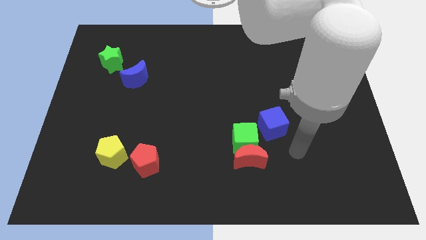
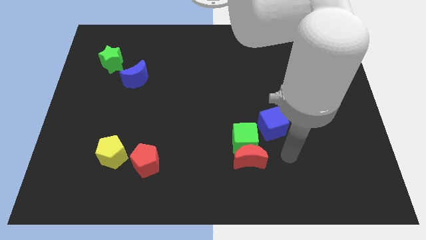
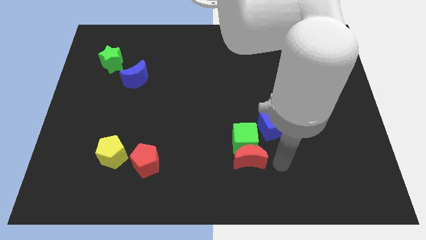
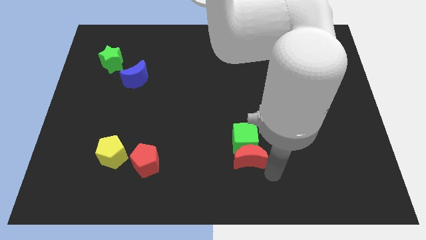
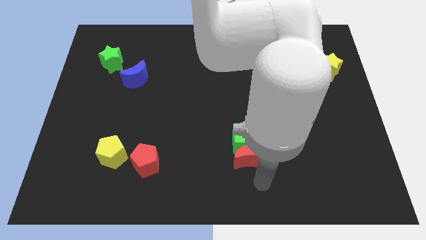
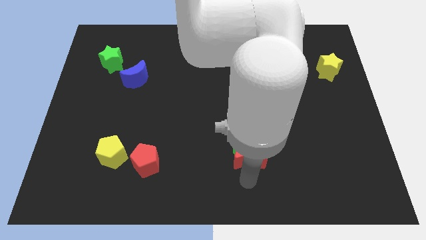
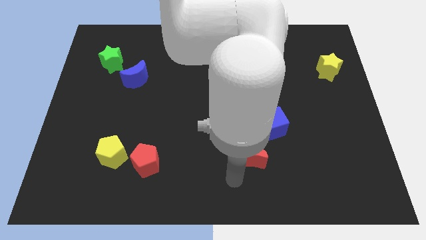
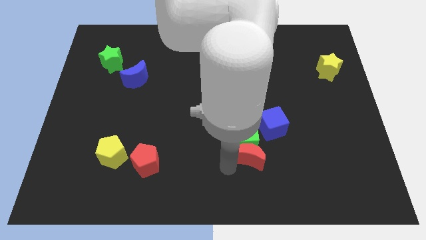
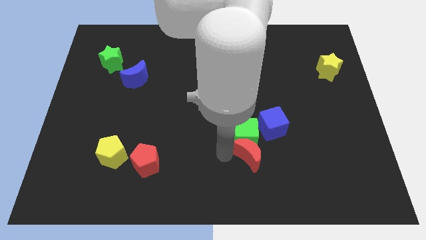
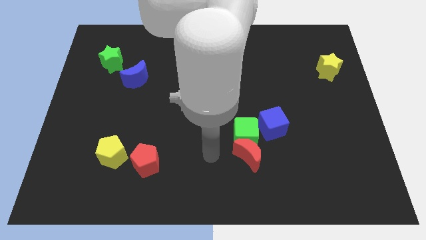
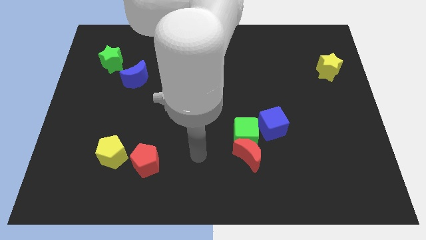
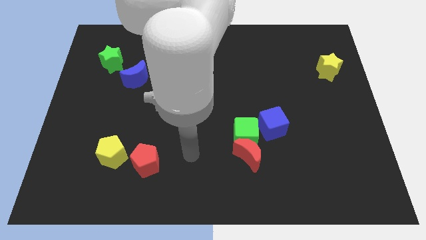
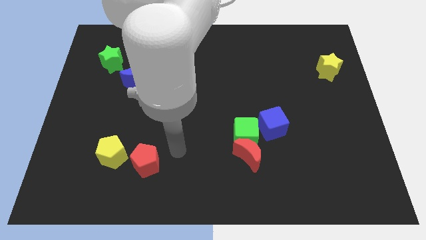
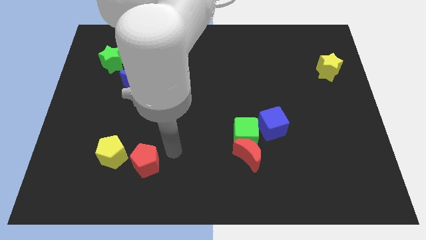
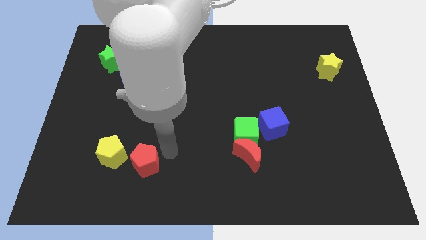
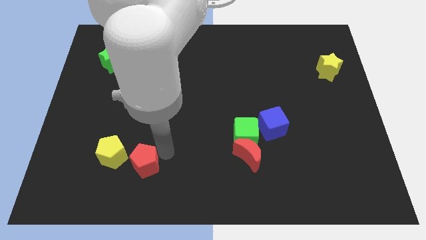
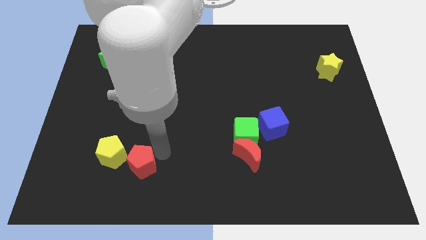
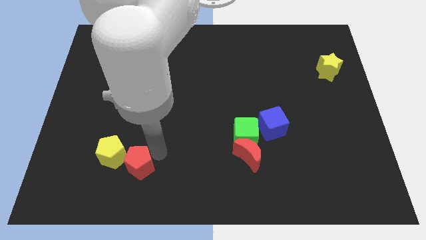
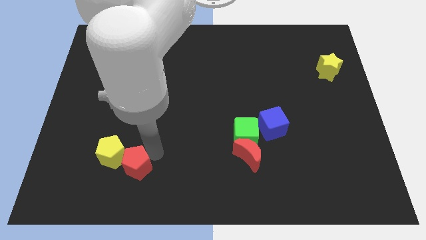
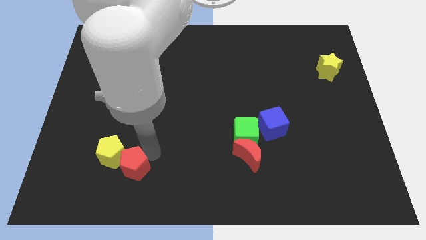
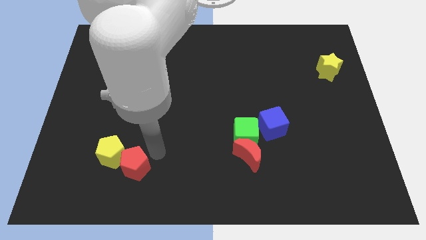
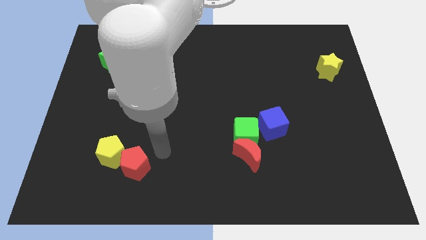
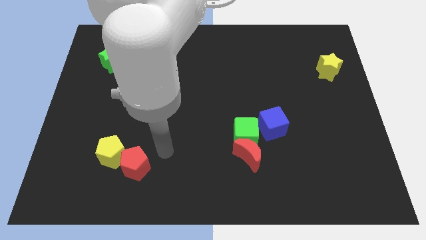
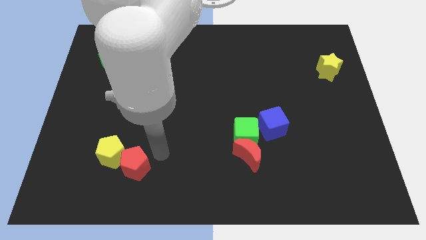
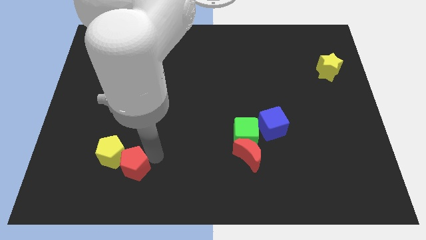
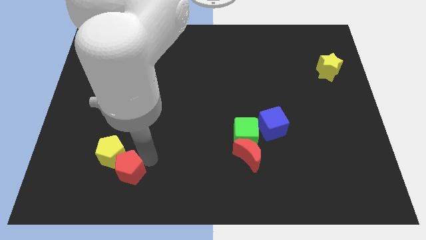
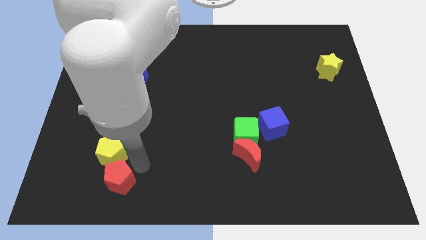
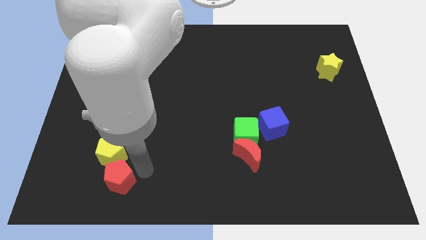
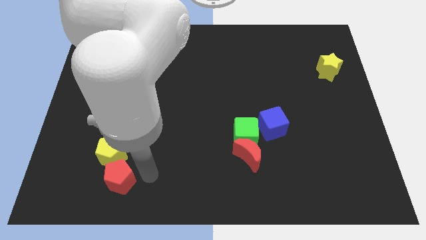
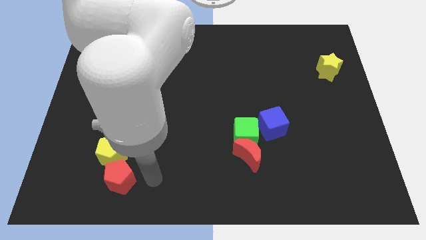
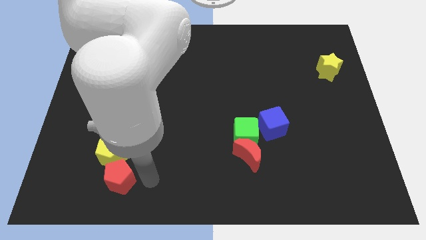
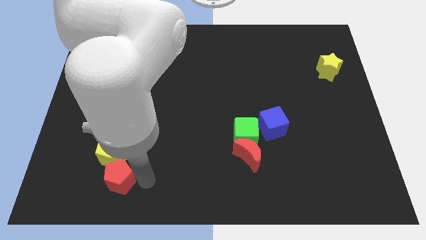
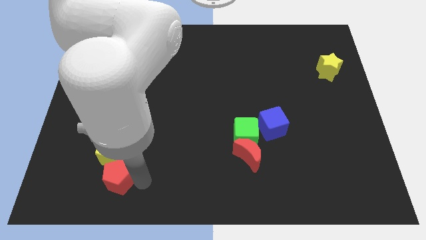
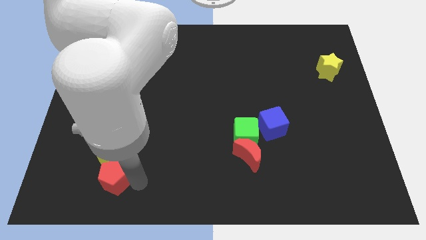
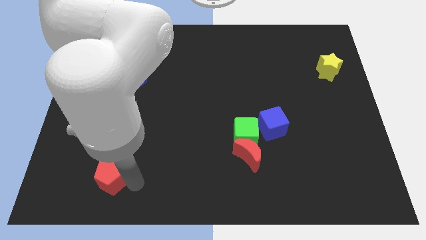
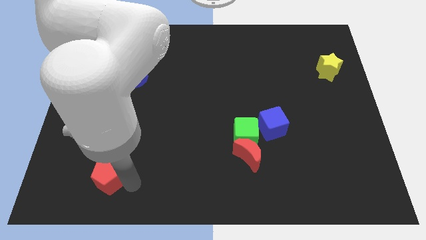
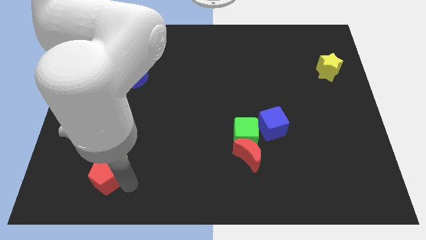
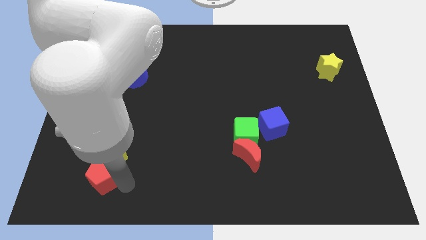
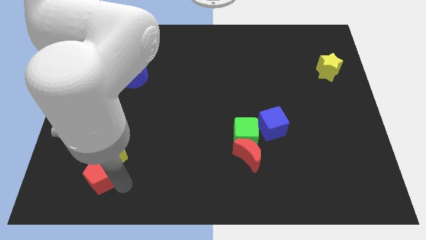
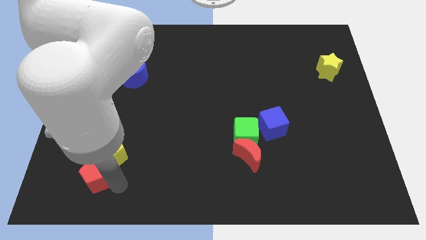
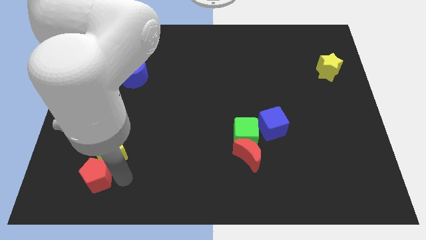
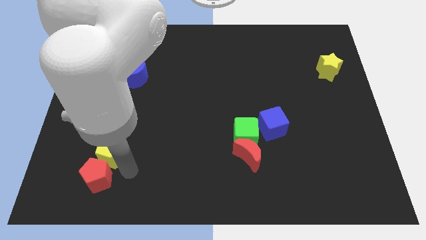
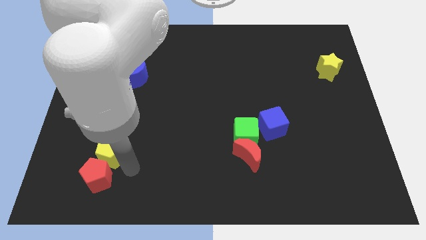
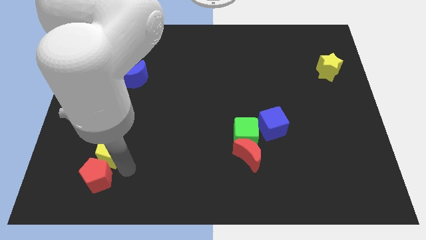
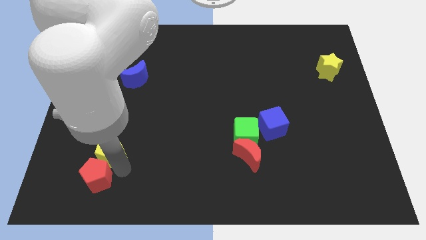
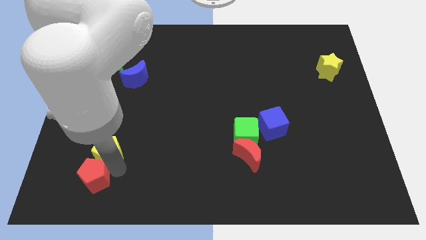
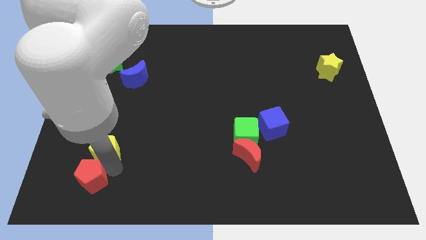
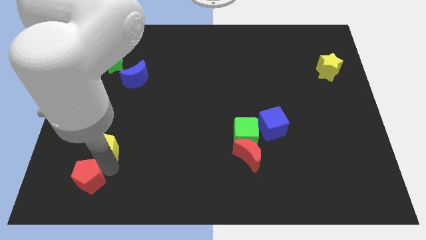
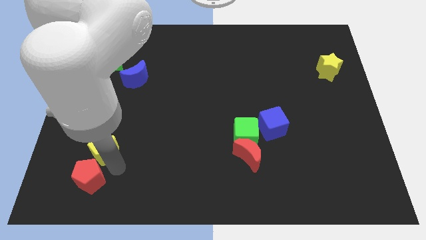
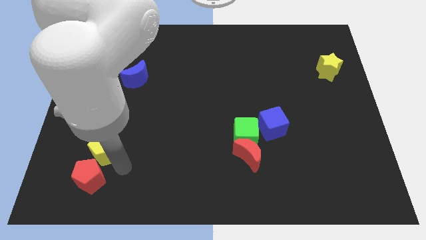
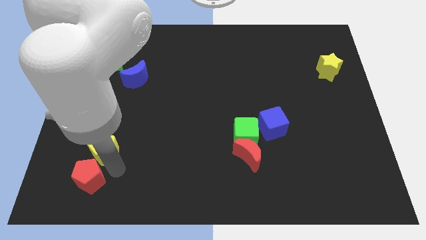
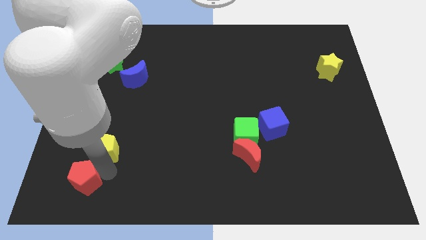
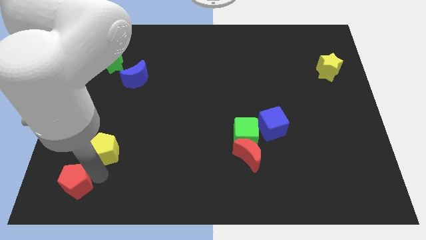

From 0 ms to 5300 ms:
put the red pentagon to the bottom left

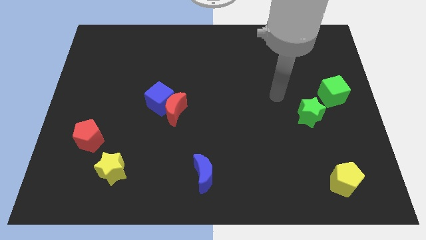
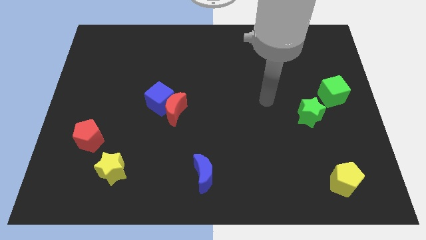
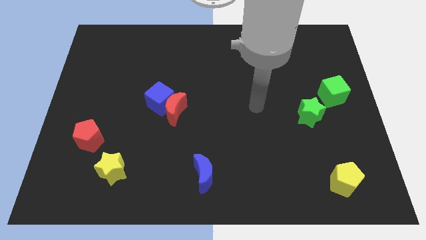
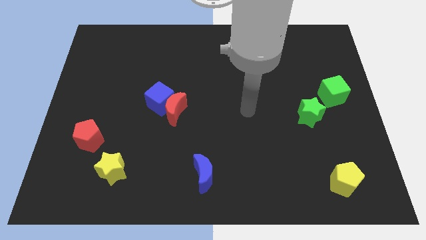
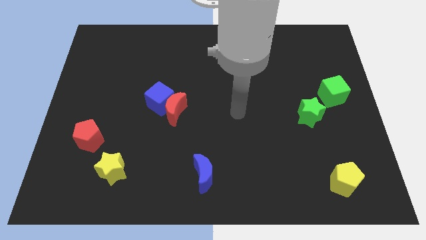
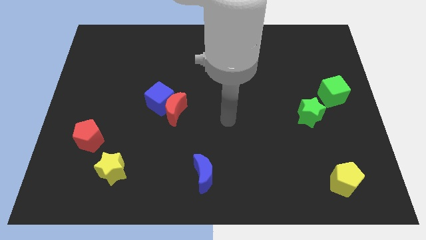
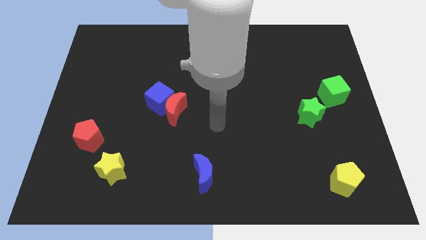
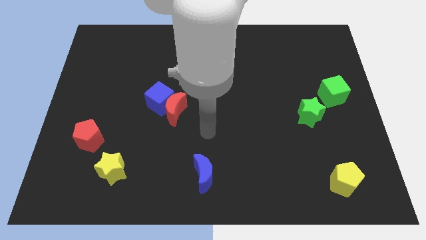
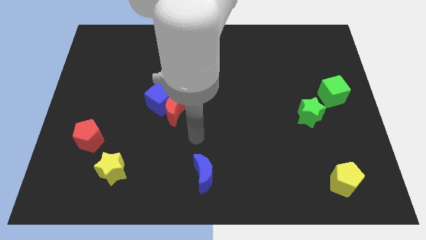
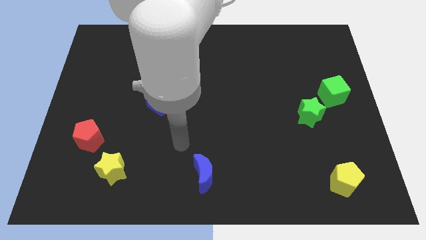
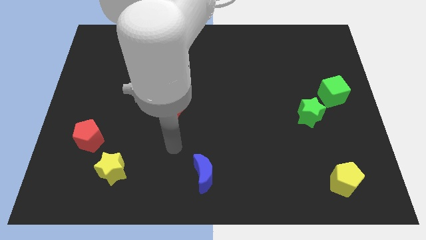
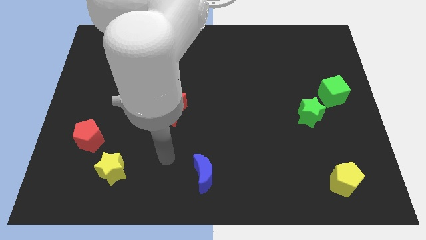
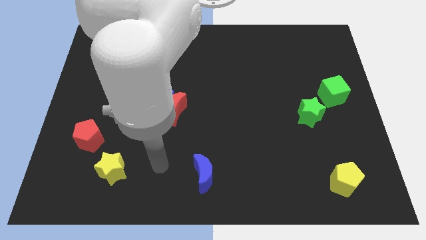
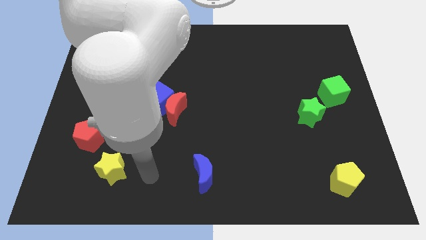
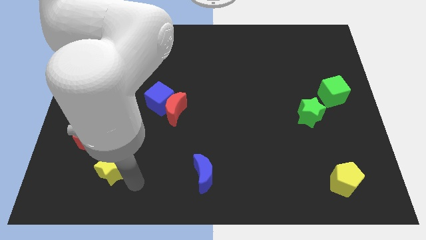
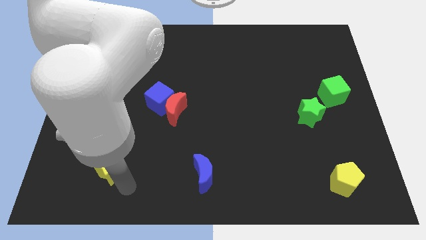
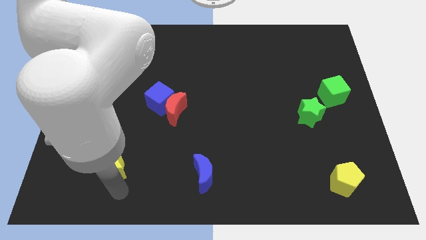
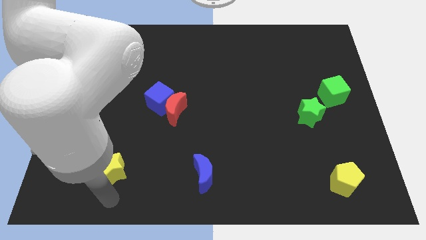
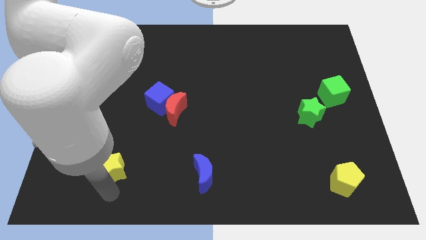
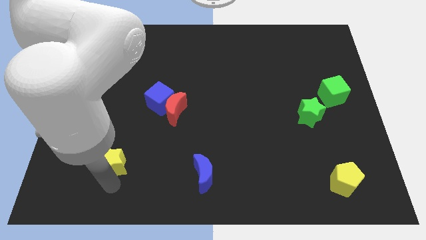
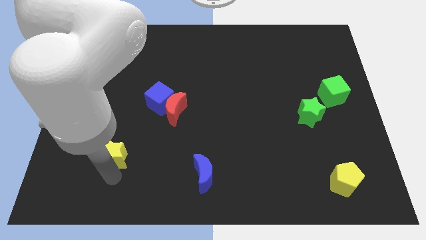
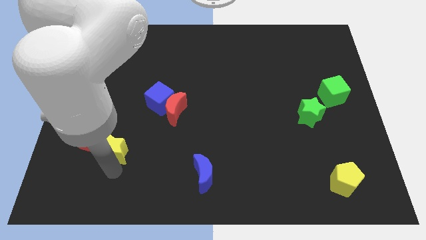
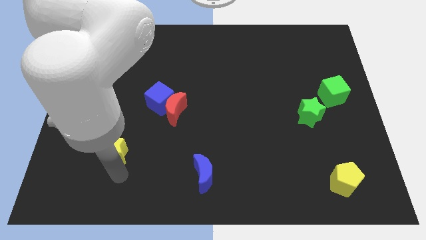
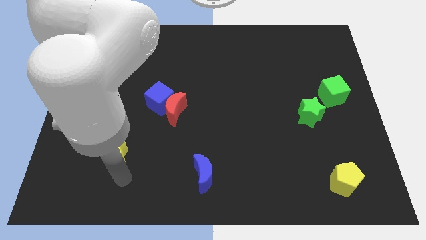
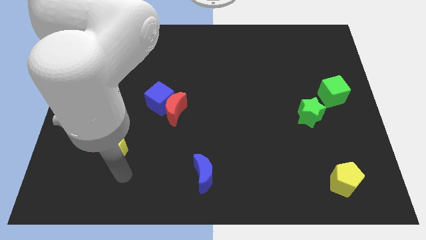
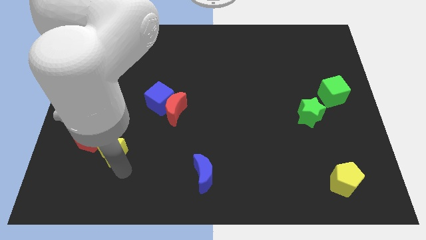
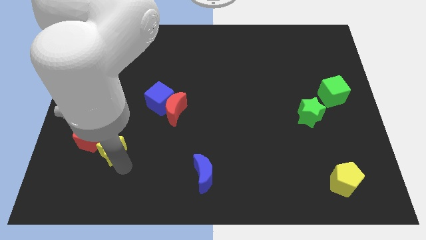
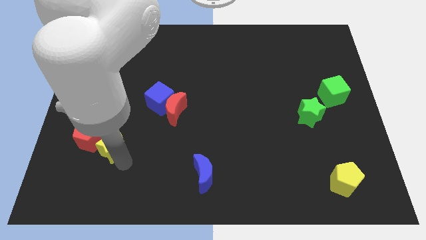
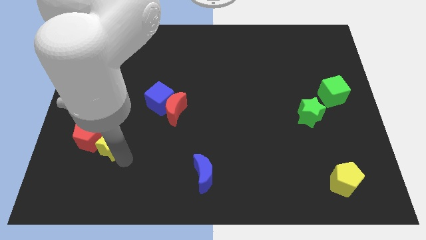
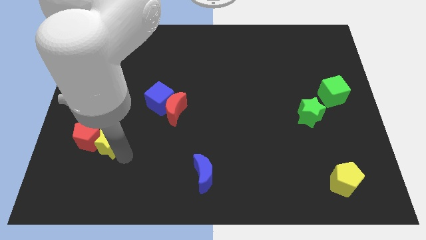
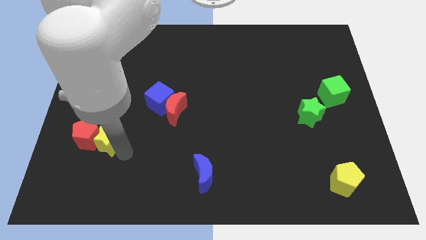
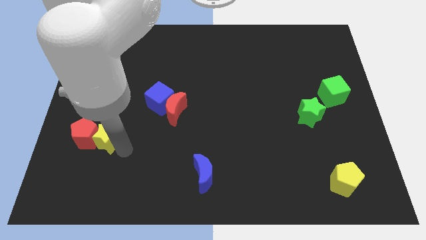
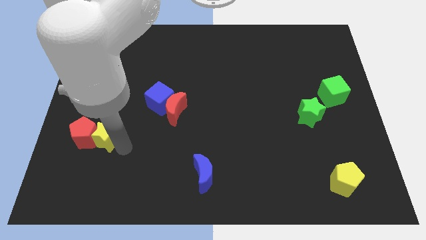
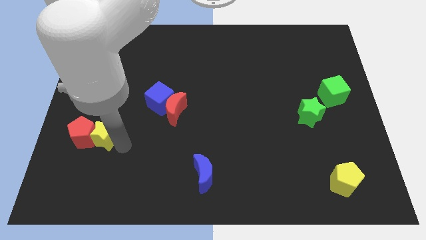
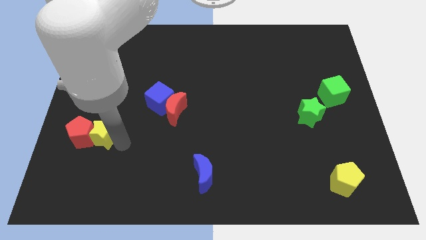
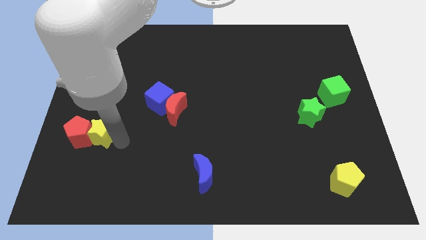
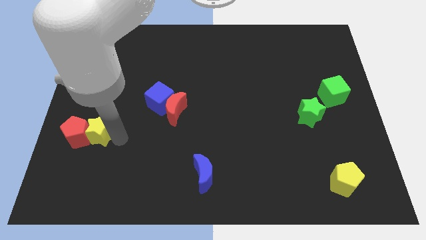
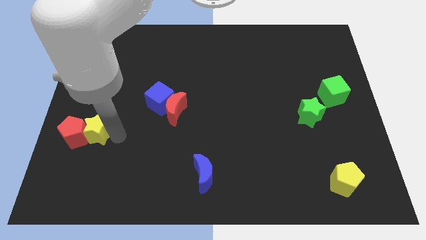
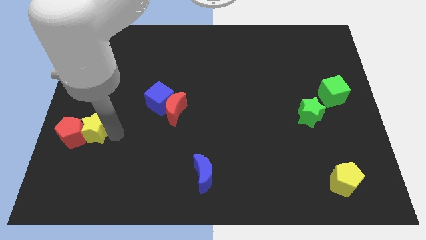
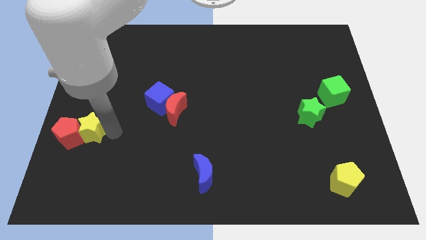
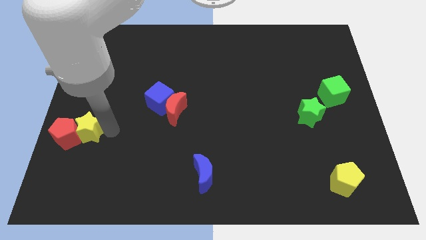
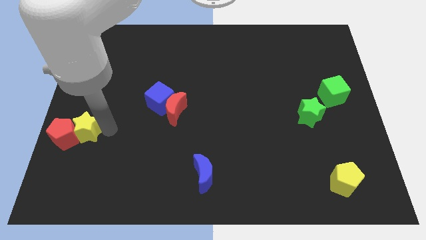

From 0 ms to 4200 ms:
push the yellow star to the left side
